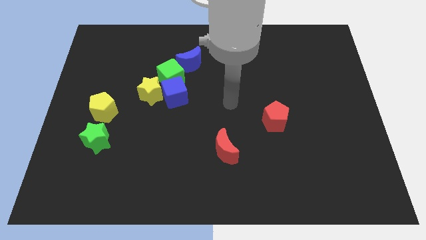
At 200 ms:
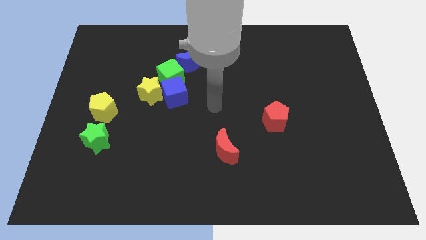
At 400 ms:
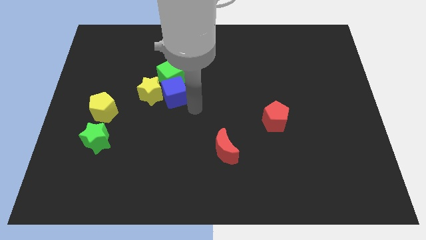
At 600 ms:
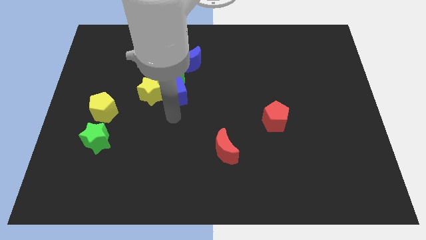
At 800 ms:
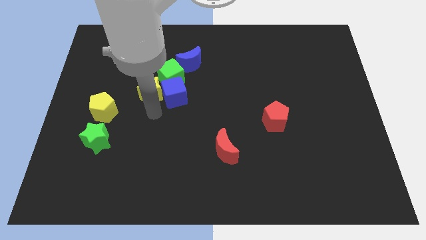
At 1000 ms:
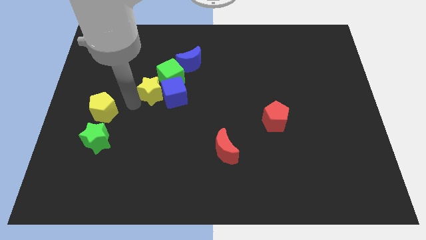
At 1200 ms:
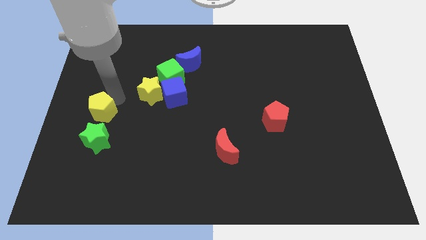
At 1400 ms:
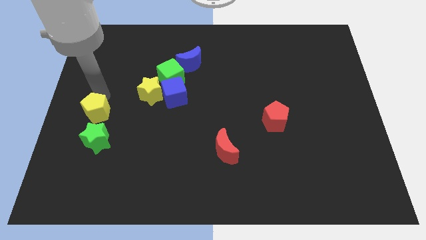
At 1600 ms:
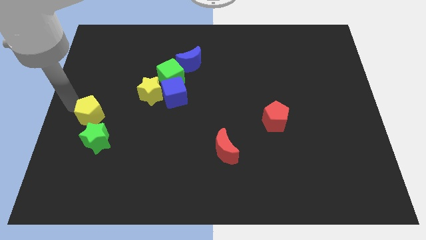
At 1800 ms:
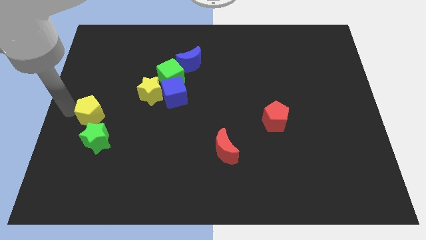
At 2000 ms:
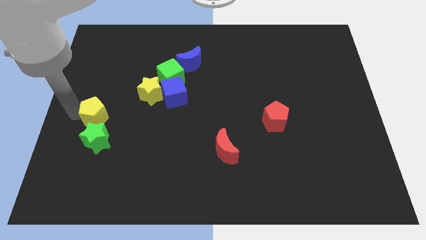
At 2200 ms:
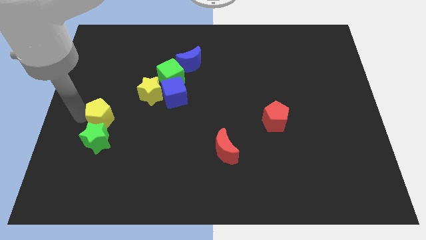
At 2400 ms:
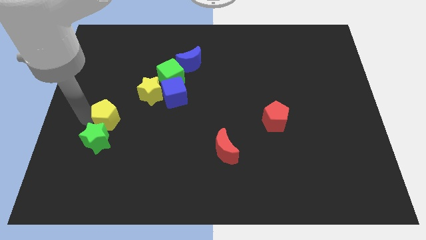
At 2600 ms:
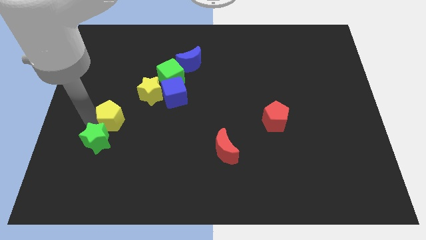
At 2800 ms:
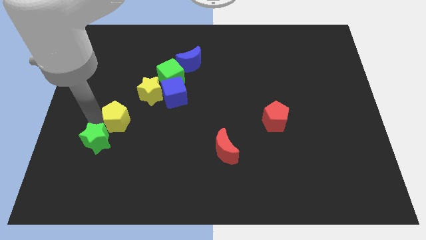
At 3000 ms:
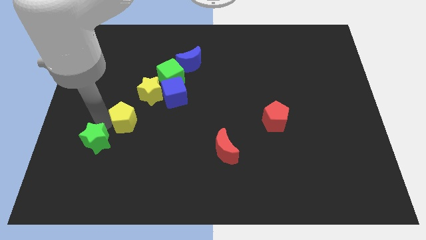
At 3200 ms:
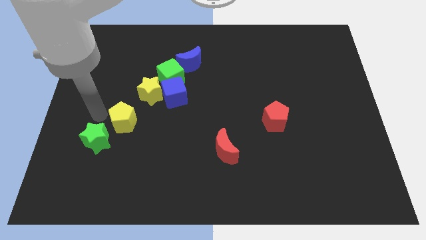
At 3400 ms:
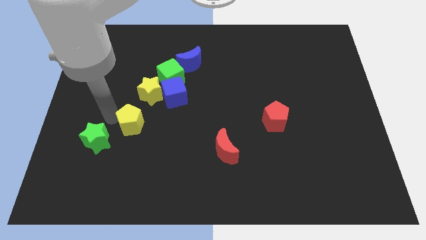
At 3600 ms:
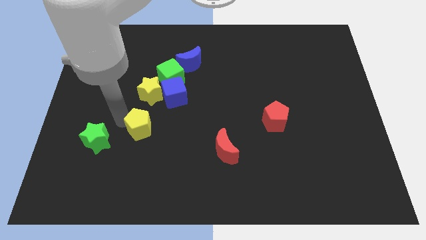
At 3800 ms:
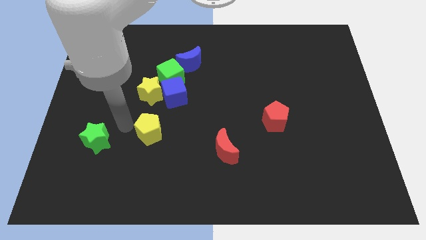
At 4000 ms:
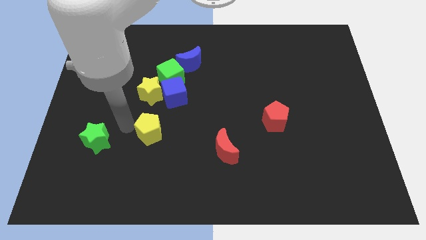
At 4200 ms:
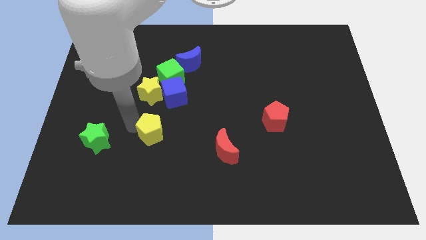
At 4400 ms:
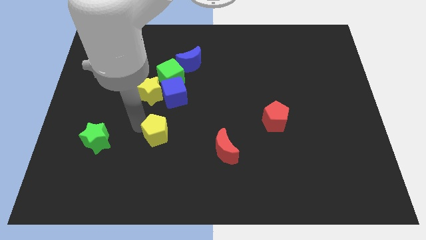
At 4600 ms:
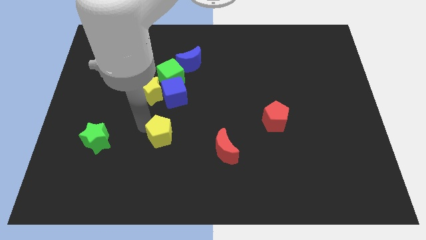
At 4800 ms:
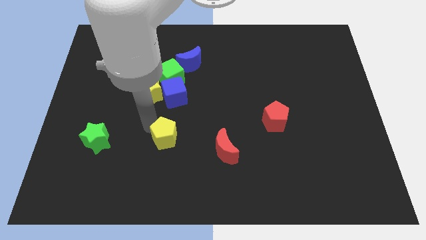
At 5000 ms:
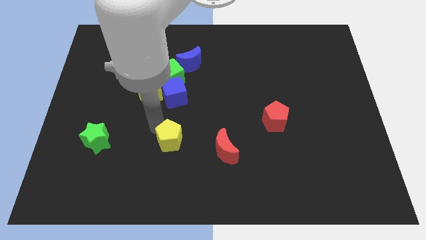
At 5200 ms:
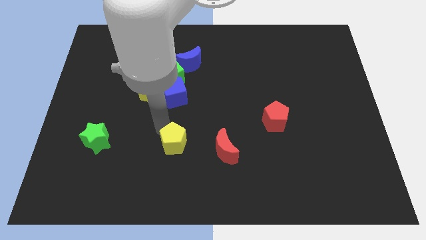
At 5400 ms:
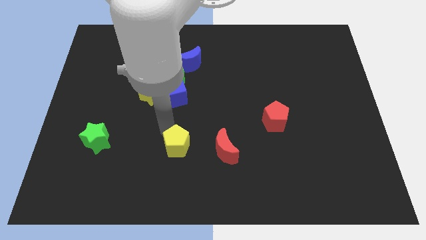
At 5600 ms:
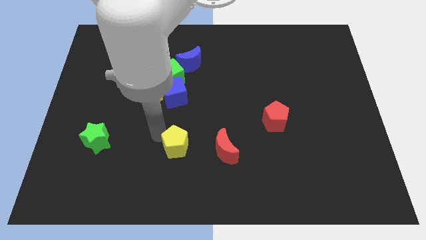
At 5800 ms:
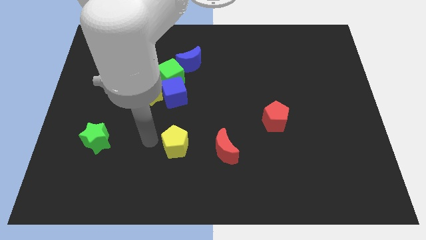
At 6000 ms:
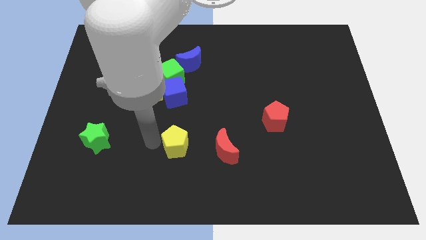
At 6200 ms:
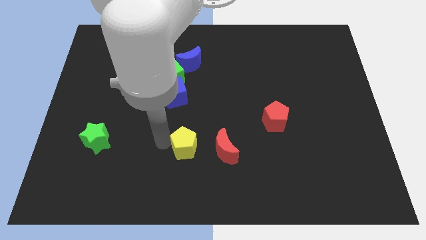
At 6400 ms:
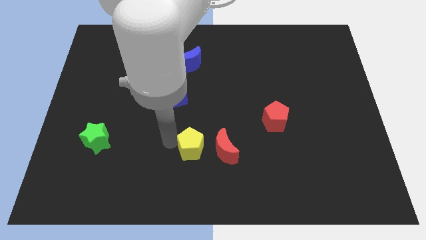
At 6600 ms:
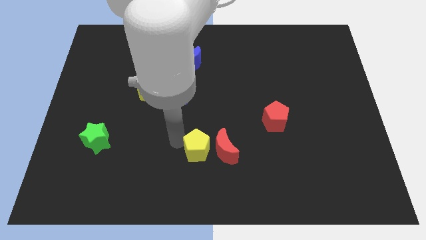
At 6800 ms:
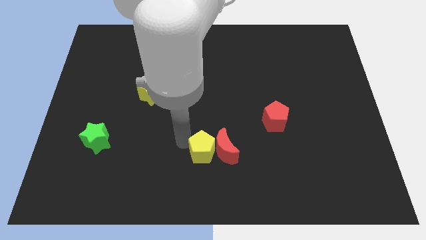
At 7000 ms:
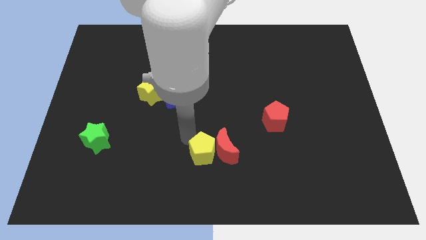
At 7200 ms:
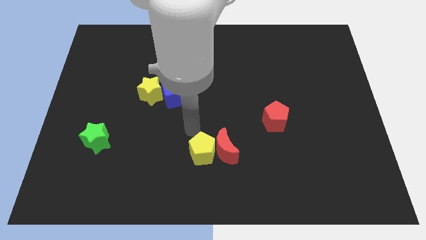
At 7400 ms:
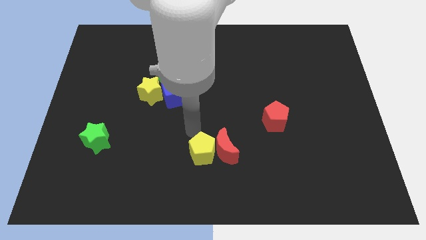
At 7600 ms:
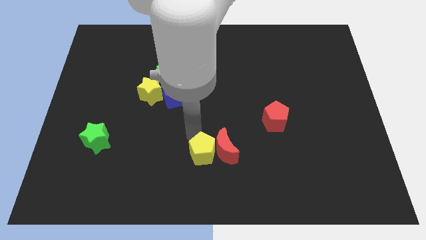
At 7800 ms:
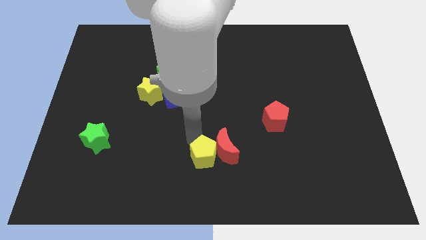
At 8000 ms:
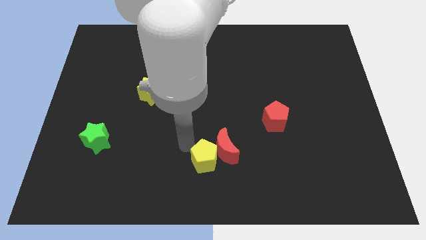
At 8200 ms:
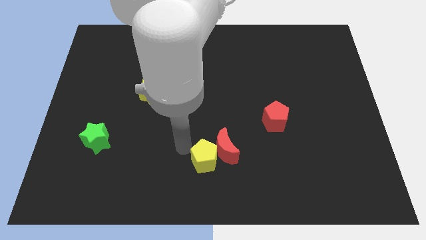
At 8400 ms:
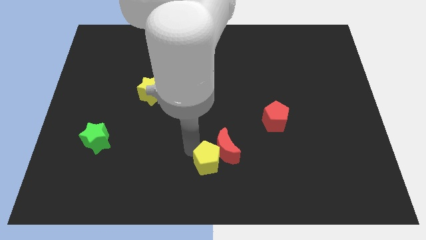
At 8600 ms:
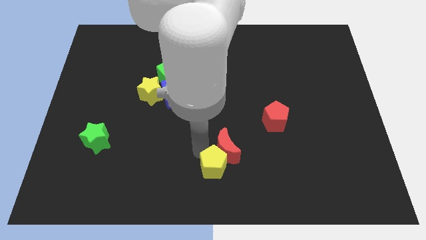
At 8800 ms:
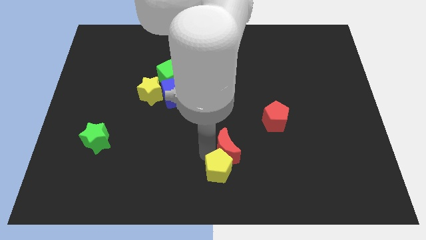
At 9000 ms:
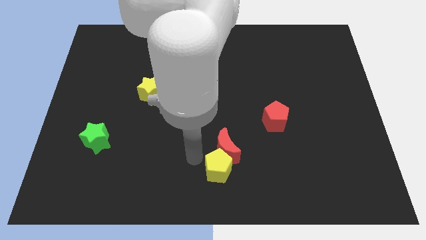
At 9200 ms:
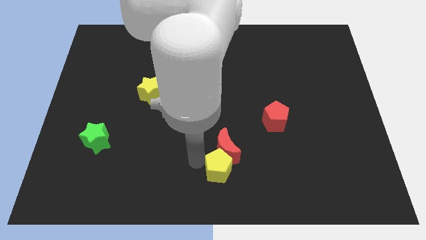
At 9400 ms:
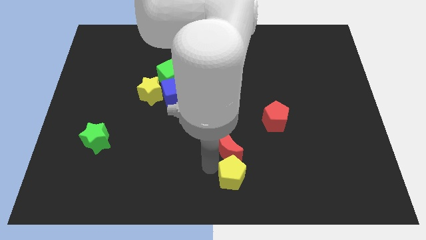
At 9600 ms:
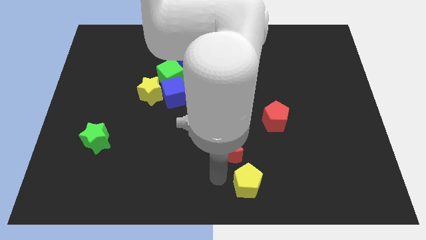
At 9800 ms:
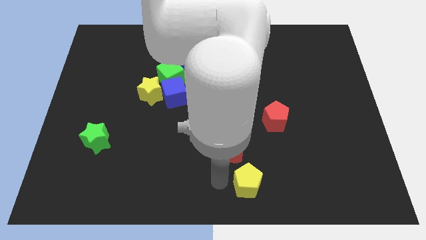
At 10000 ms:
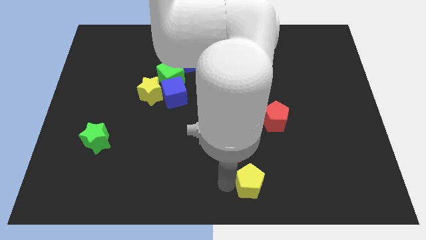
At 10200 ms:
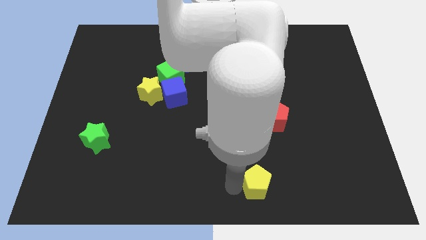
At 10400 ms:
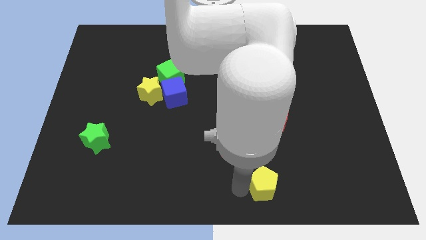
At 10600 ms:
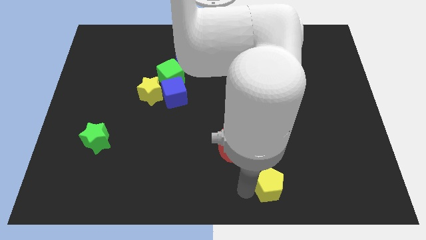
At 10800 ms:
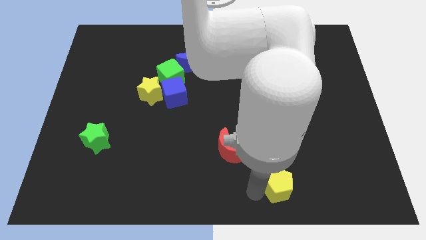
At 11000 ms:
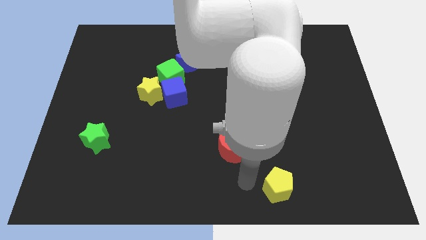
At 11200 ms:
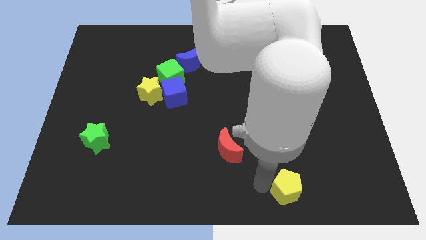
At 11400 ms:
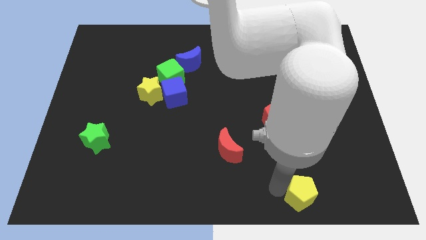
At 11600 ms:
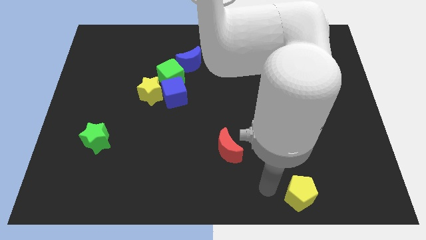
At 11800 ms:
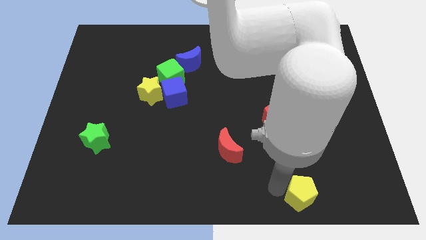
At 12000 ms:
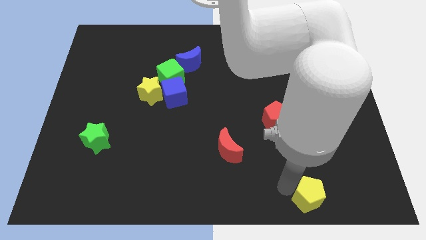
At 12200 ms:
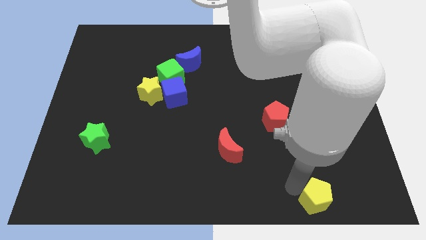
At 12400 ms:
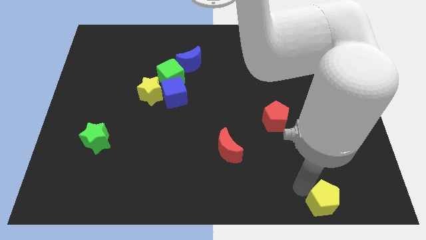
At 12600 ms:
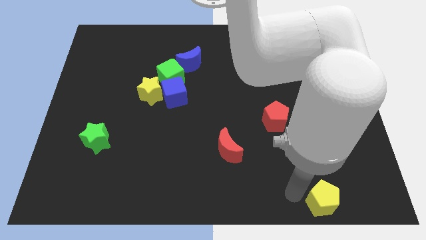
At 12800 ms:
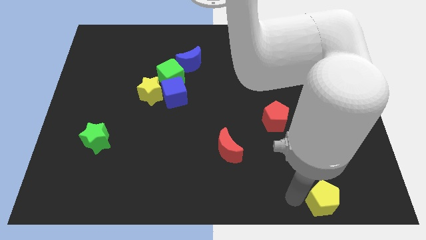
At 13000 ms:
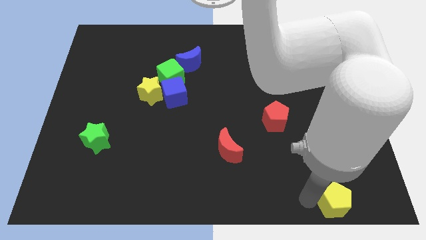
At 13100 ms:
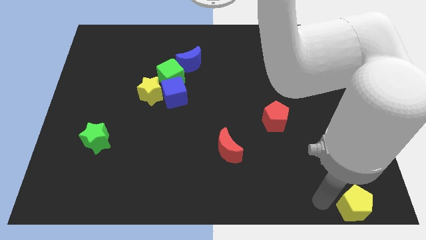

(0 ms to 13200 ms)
slide the yellow pentagon to the bottom right corner
